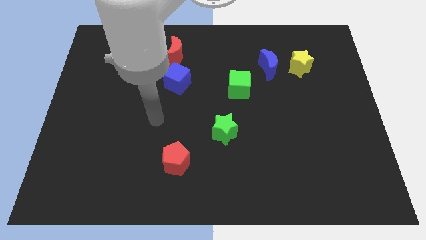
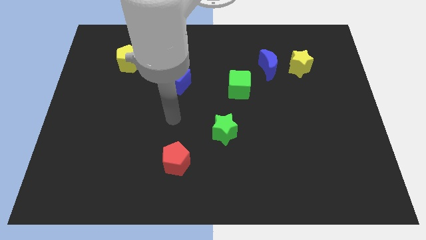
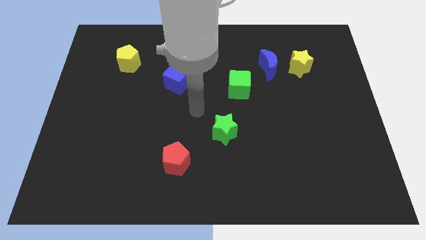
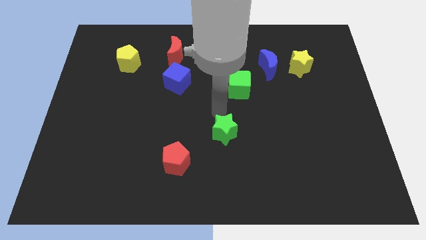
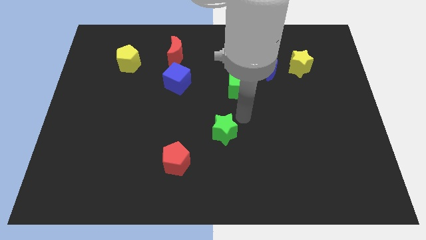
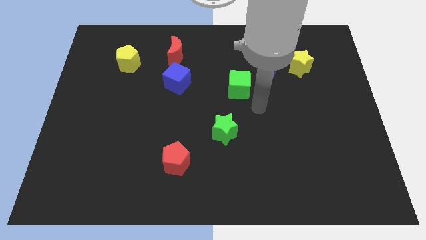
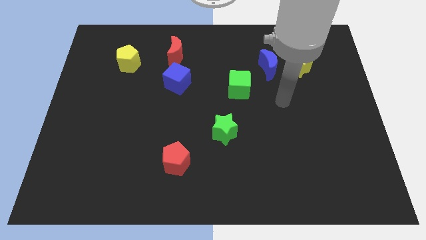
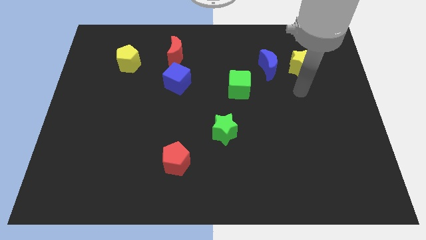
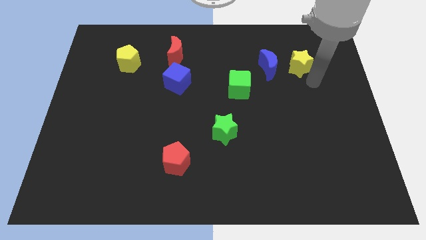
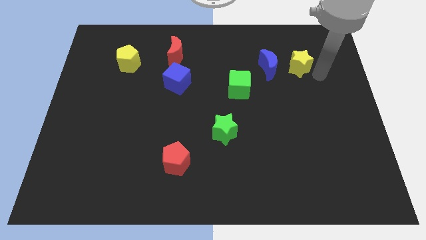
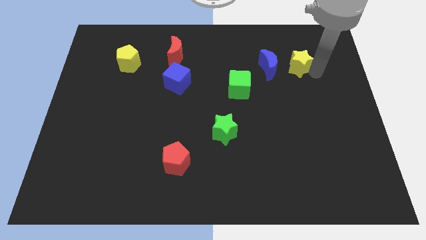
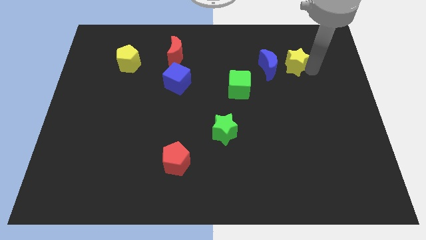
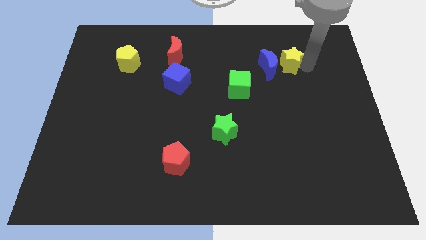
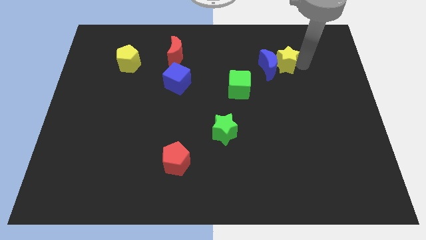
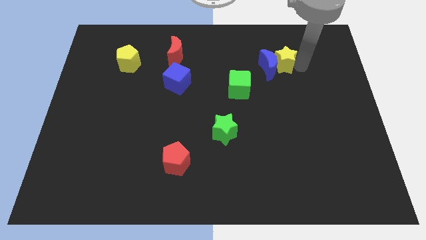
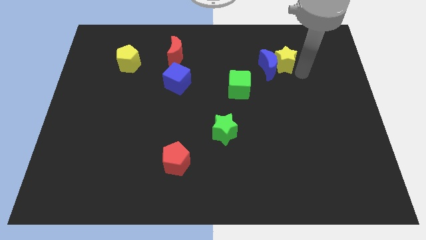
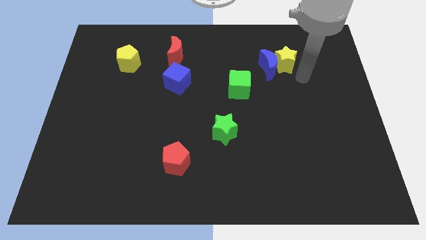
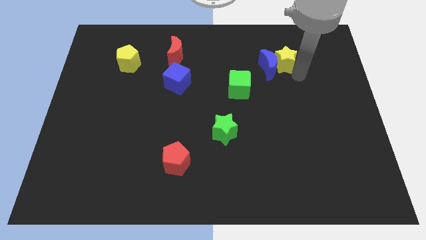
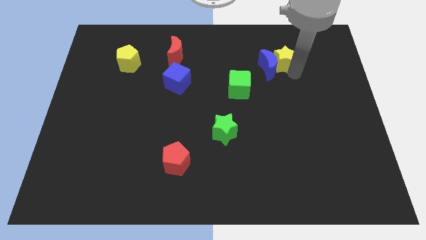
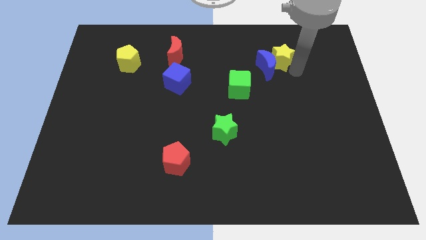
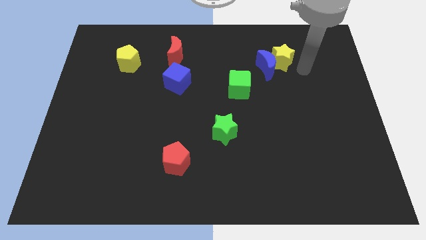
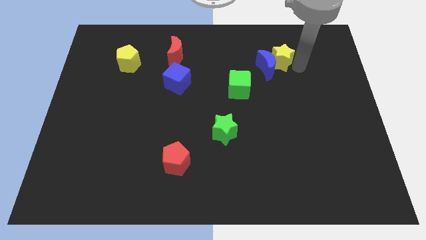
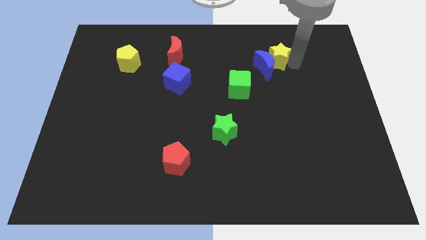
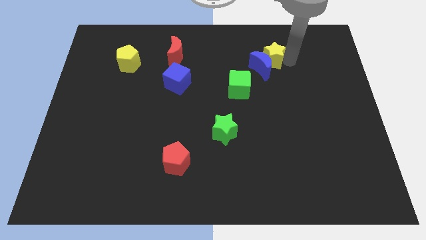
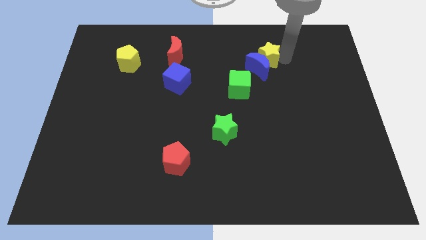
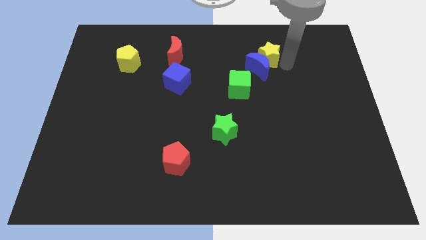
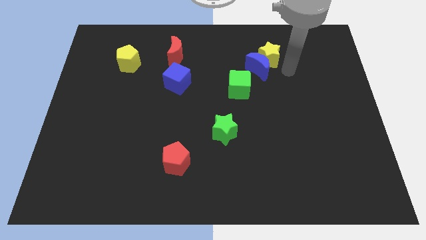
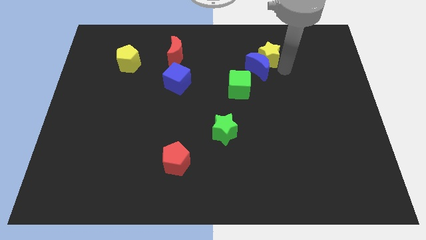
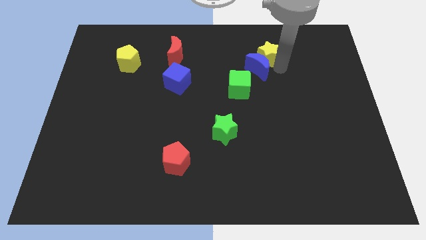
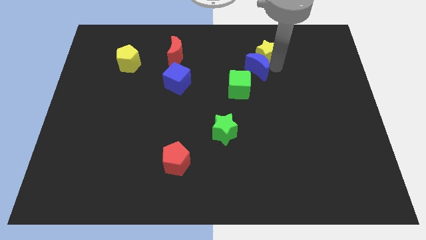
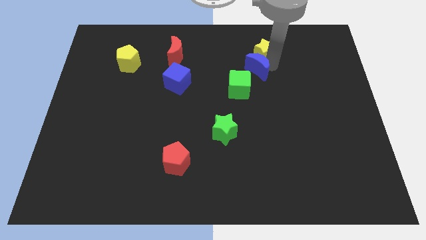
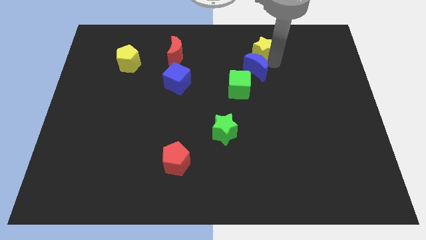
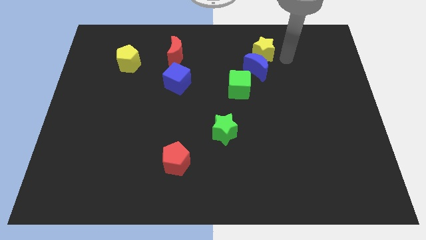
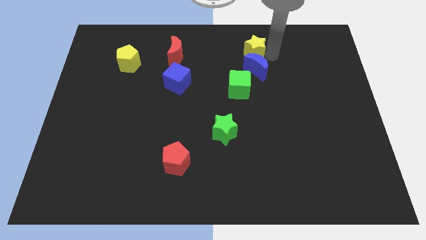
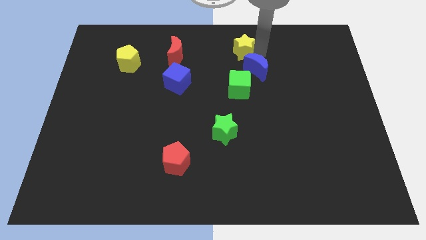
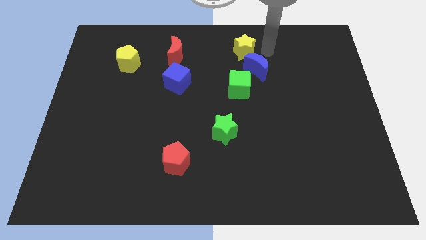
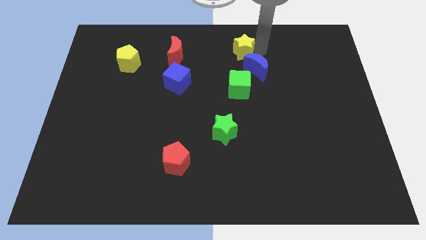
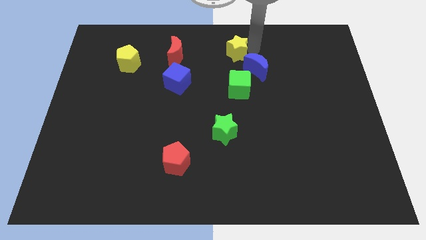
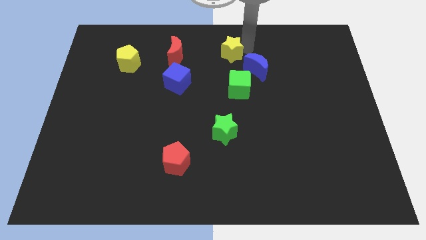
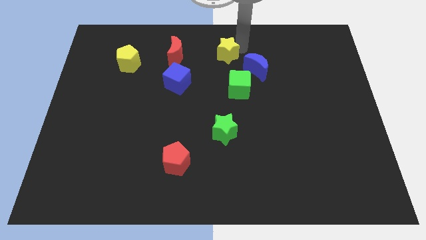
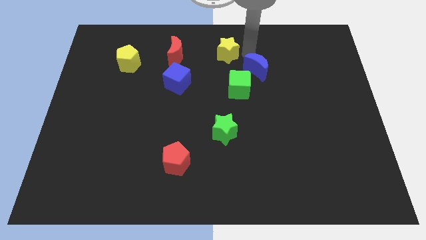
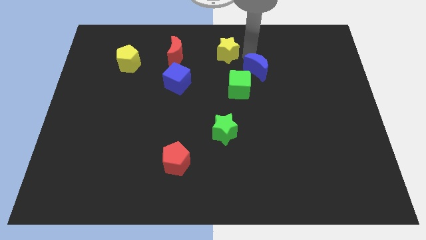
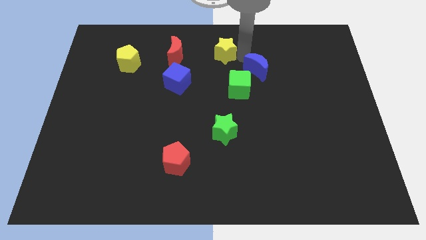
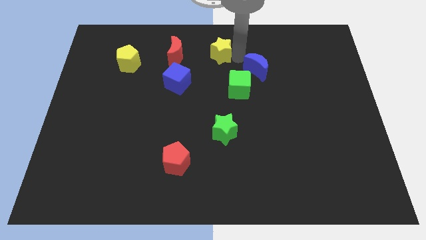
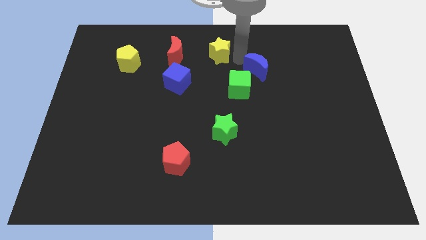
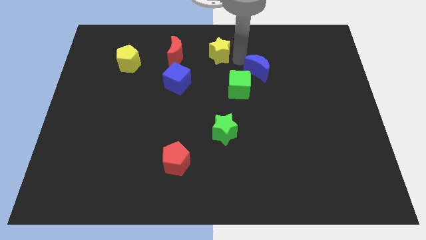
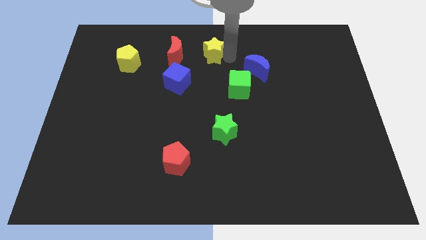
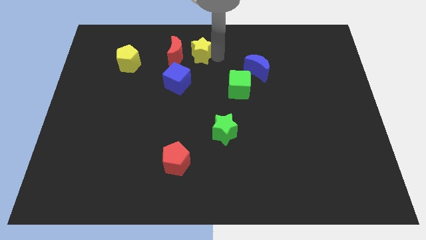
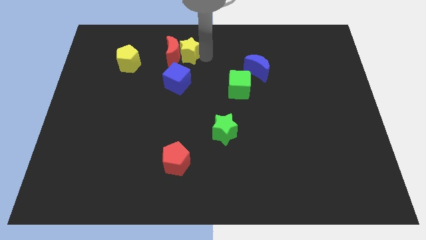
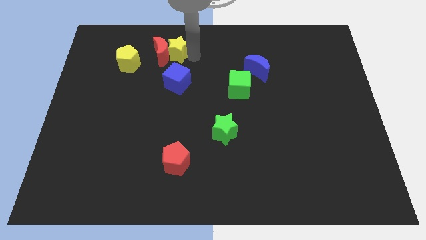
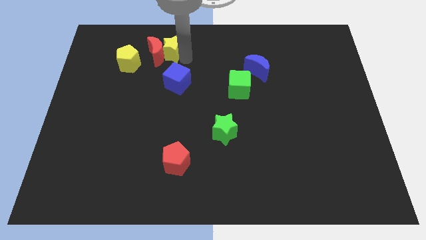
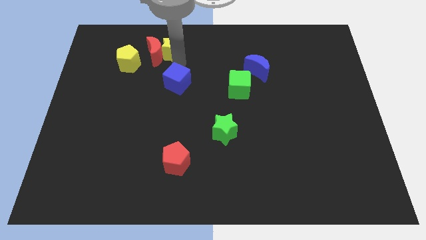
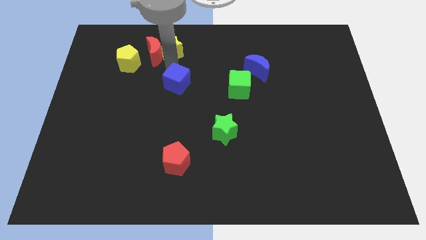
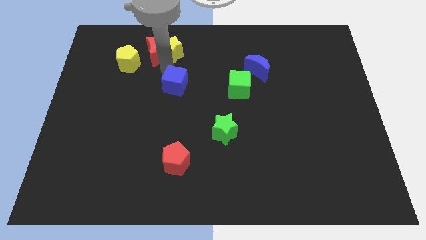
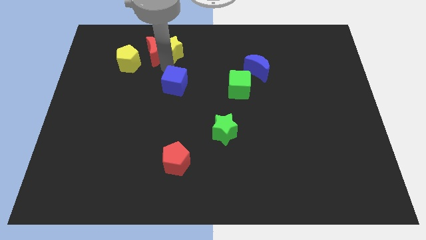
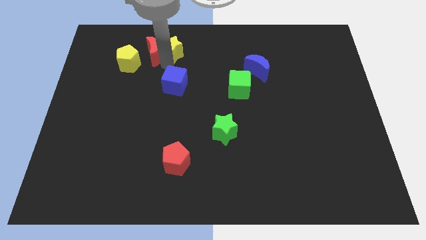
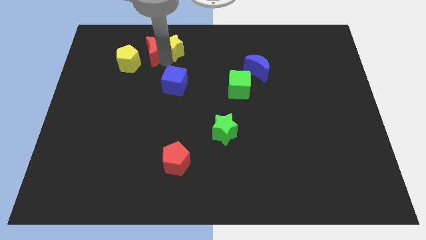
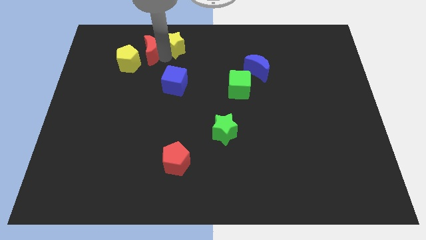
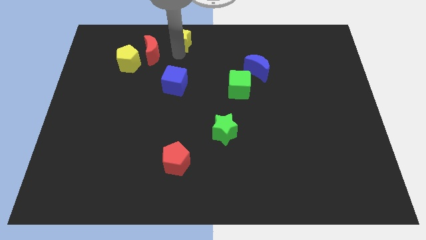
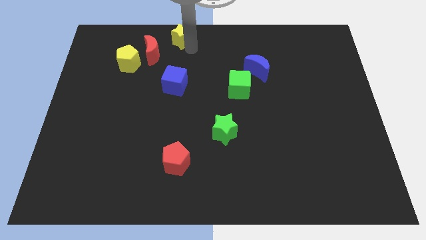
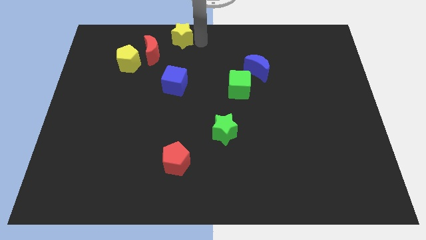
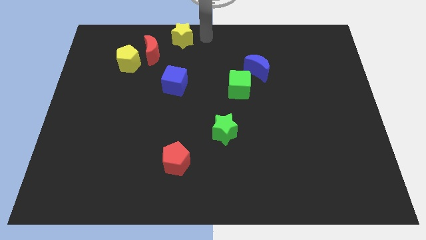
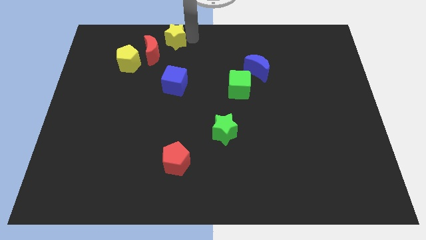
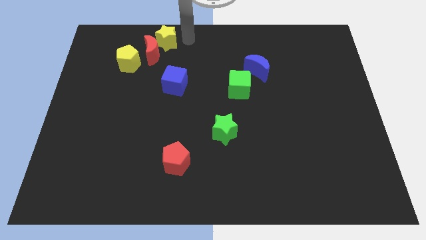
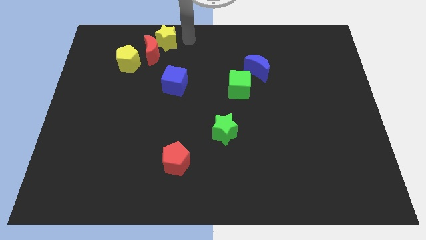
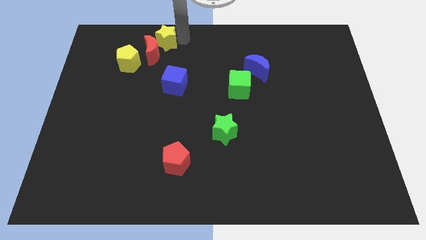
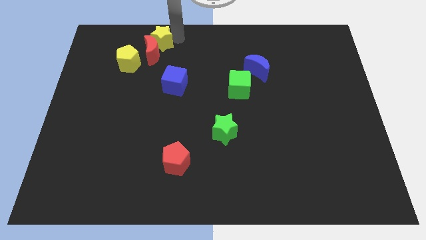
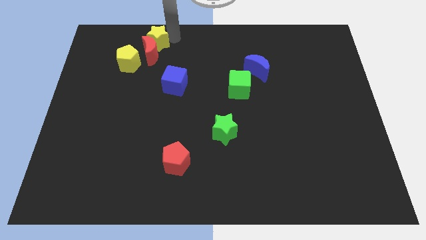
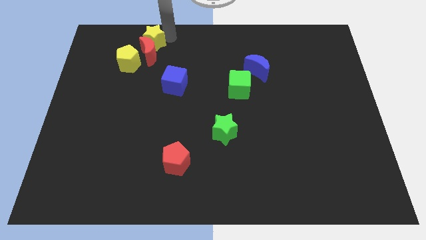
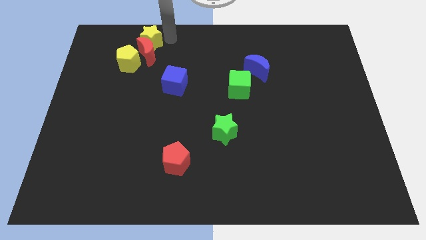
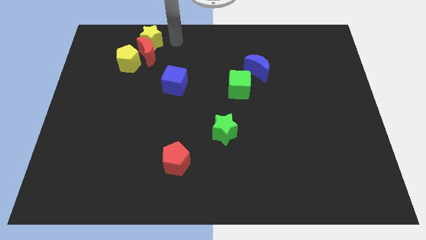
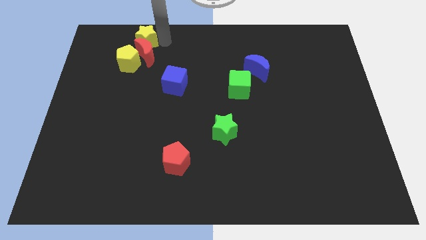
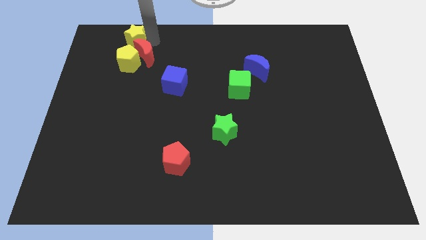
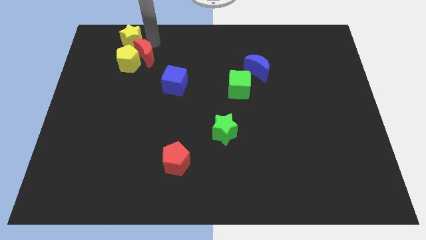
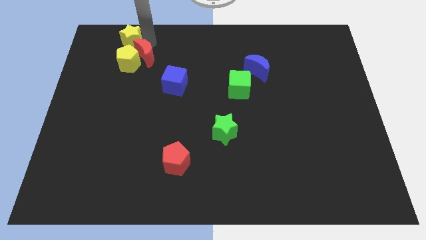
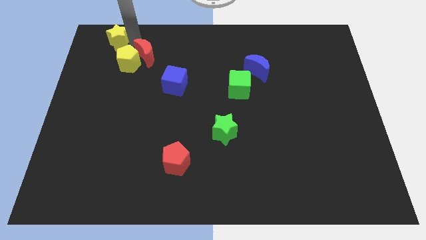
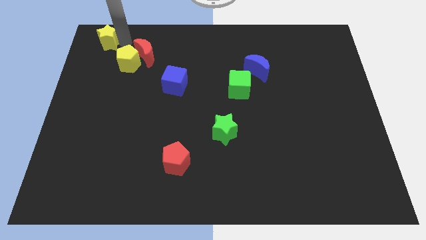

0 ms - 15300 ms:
push the yellow star to the top left of the board
